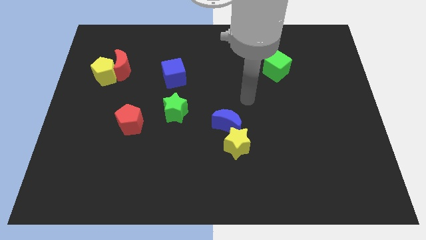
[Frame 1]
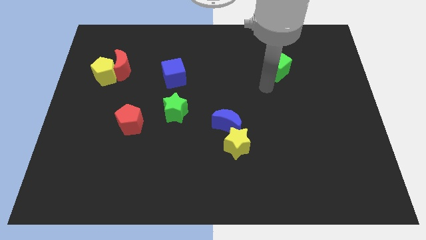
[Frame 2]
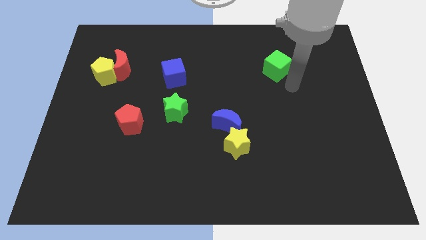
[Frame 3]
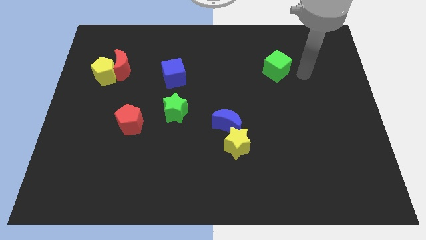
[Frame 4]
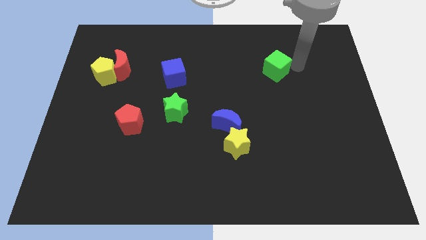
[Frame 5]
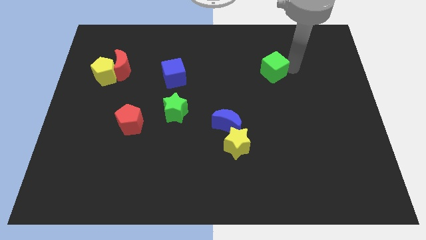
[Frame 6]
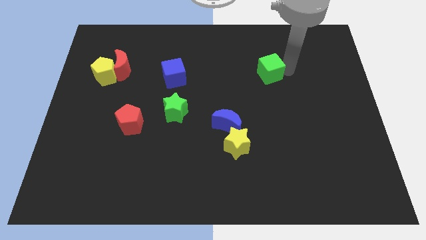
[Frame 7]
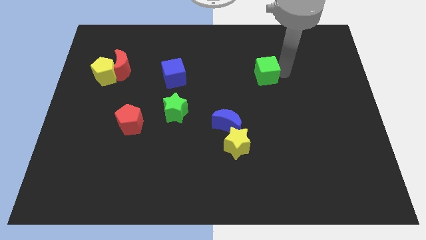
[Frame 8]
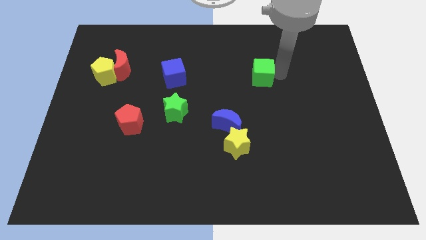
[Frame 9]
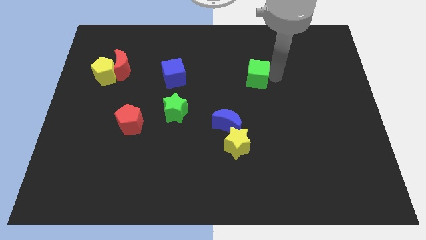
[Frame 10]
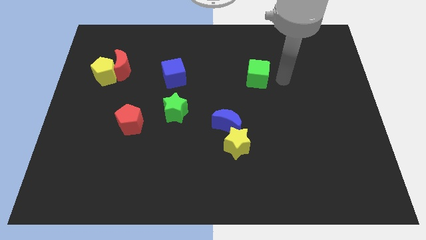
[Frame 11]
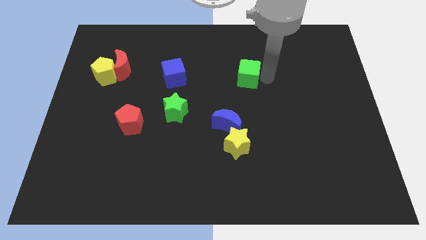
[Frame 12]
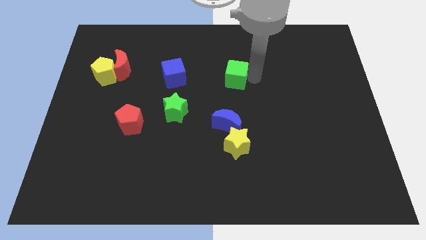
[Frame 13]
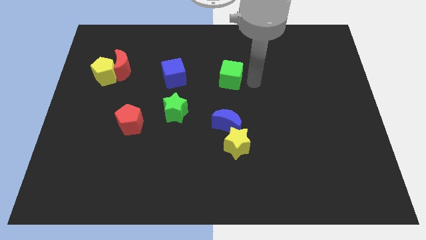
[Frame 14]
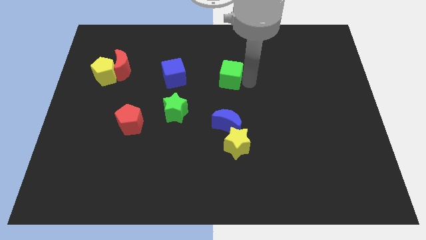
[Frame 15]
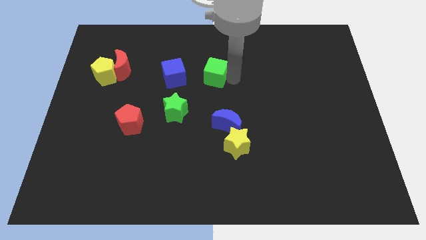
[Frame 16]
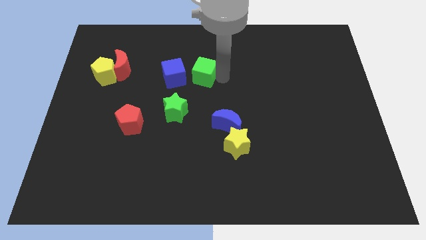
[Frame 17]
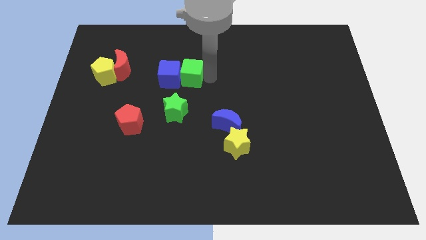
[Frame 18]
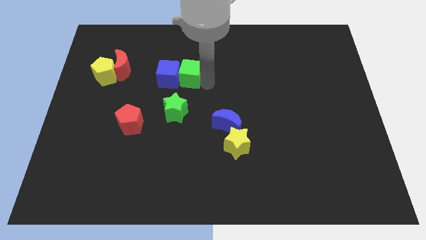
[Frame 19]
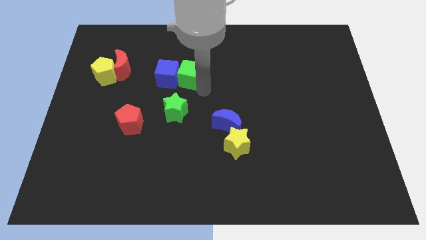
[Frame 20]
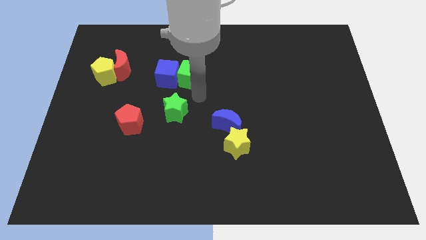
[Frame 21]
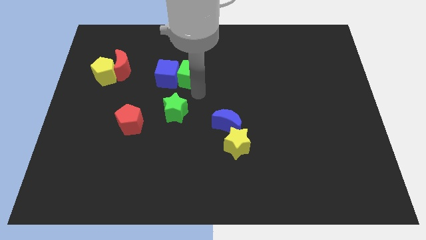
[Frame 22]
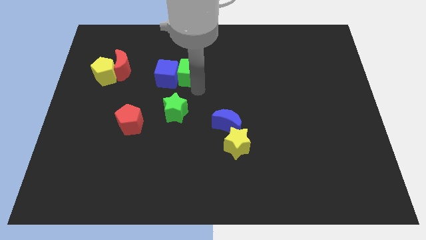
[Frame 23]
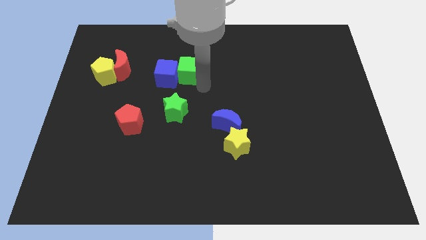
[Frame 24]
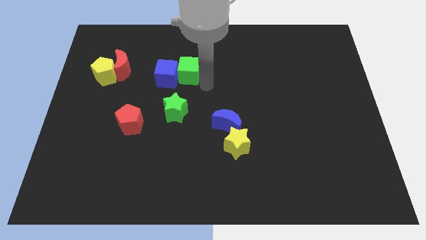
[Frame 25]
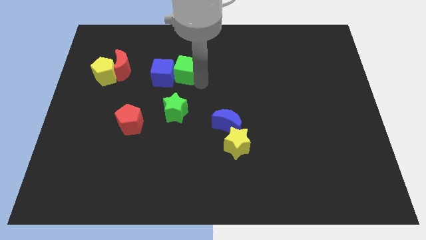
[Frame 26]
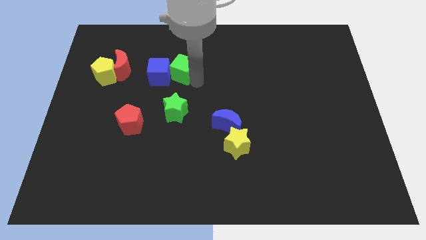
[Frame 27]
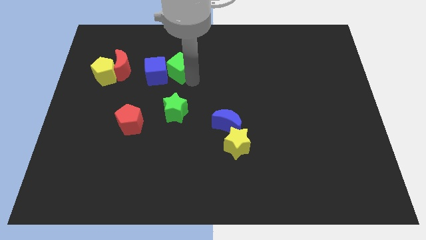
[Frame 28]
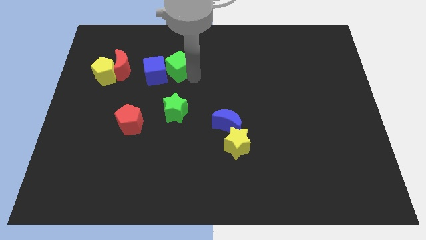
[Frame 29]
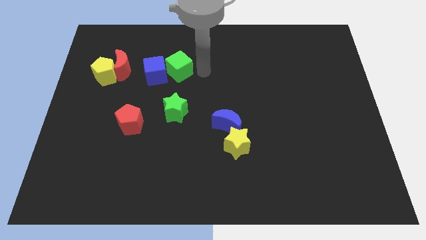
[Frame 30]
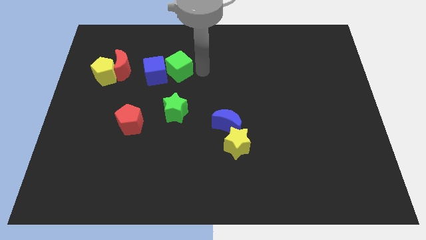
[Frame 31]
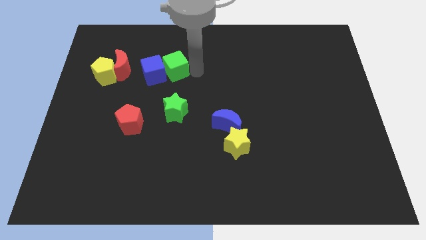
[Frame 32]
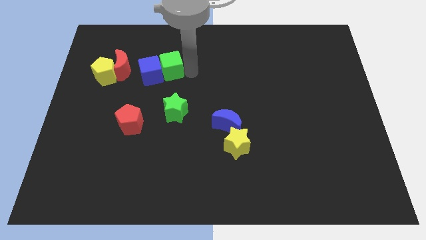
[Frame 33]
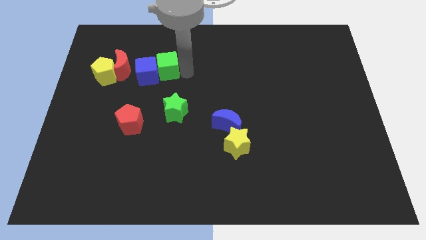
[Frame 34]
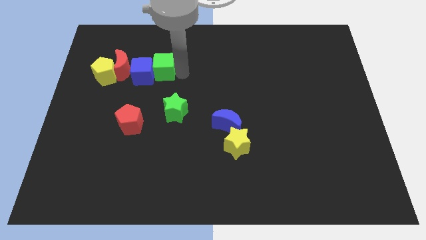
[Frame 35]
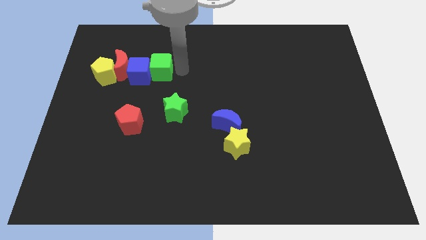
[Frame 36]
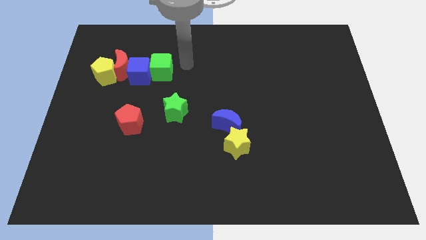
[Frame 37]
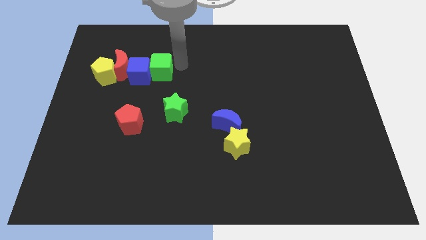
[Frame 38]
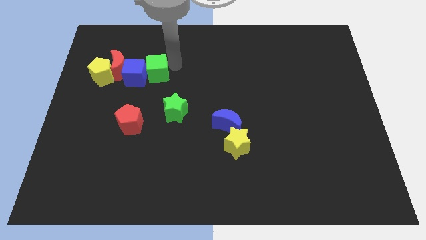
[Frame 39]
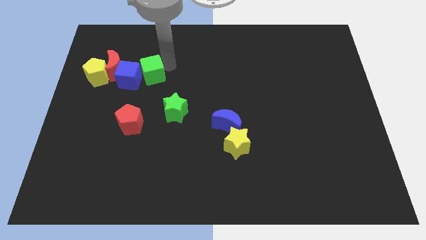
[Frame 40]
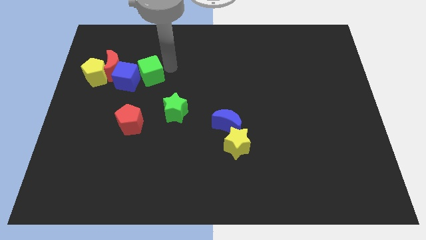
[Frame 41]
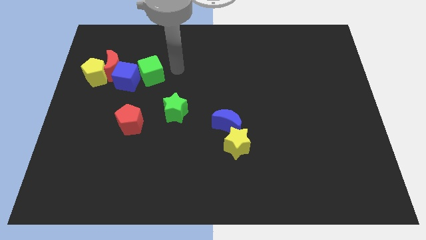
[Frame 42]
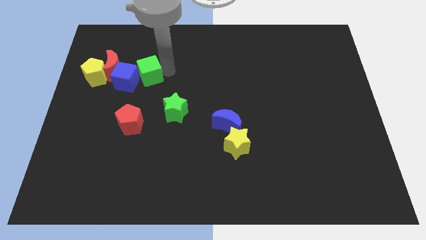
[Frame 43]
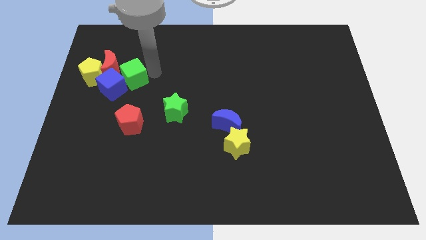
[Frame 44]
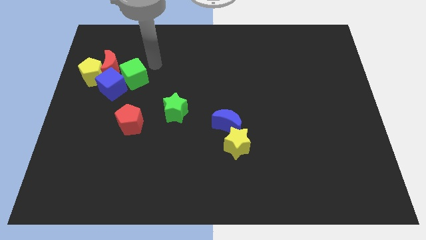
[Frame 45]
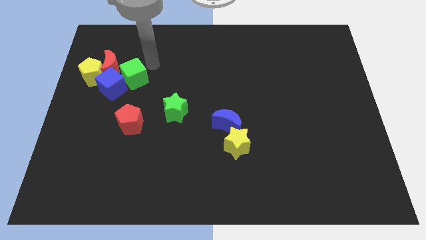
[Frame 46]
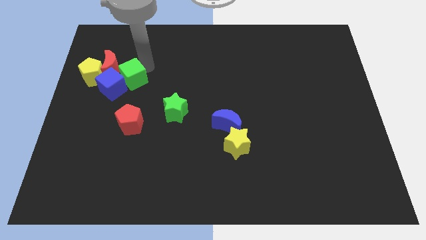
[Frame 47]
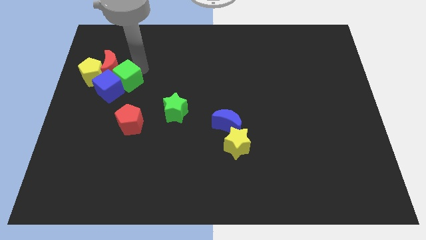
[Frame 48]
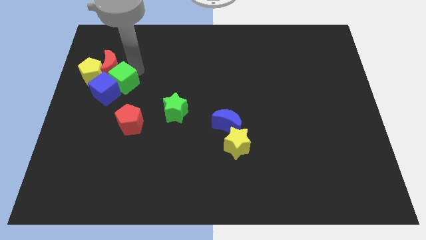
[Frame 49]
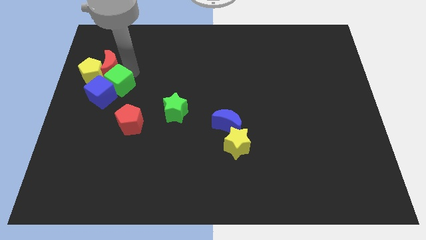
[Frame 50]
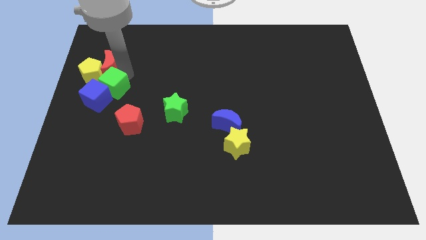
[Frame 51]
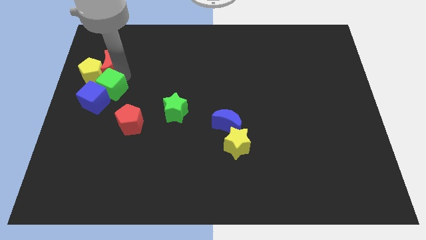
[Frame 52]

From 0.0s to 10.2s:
move the green cube diagonally up and to the left of the red pentagon

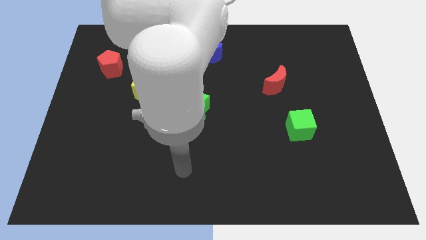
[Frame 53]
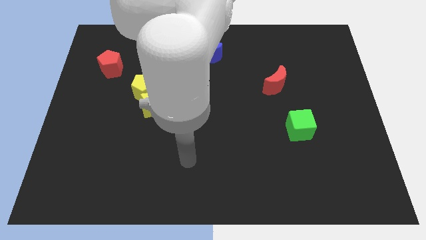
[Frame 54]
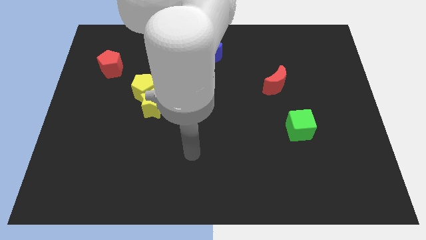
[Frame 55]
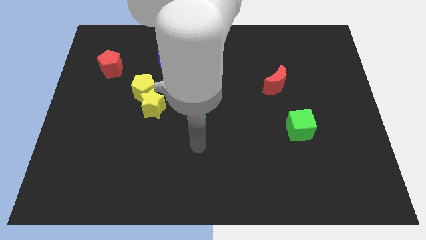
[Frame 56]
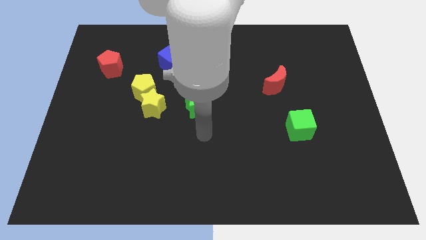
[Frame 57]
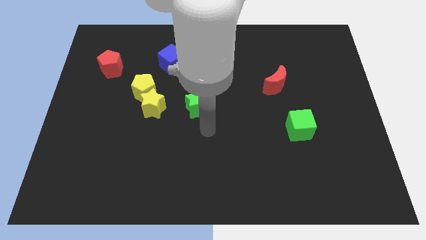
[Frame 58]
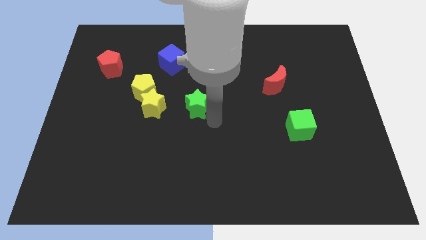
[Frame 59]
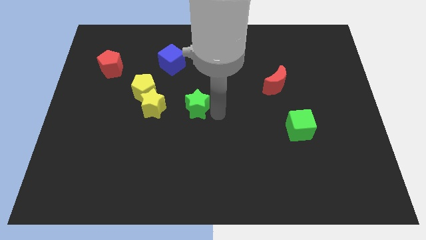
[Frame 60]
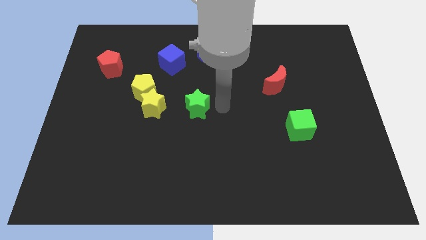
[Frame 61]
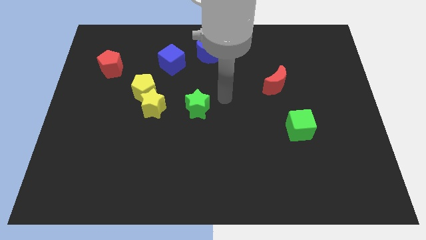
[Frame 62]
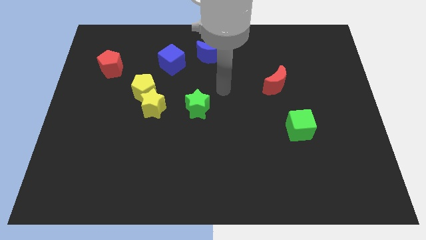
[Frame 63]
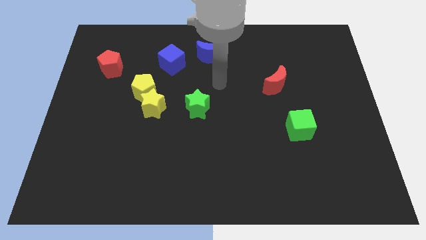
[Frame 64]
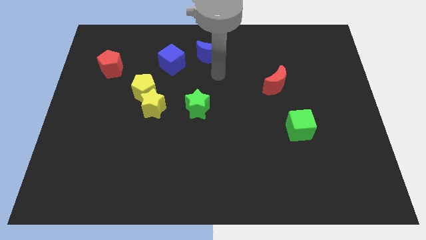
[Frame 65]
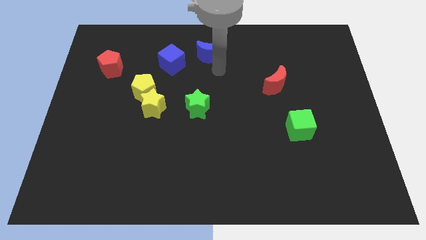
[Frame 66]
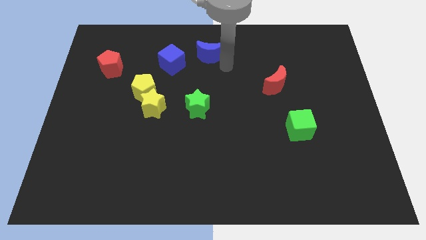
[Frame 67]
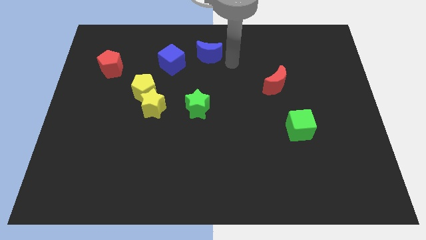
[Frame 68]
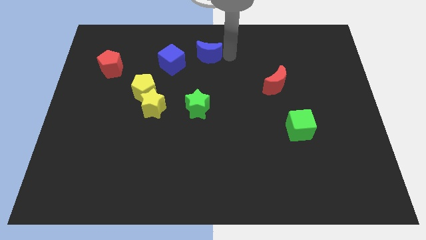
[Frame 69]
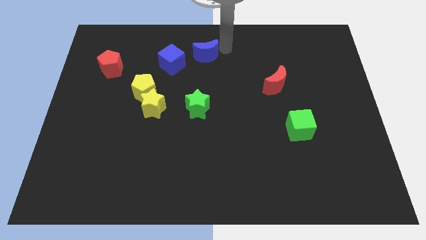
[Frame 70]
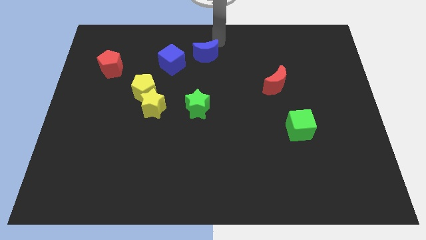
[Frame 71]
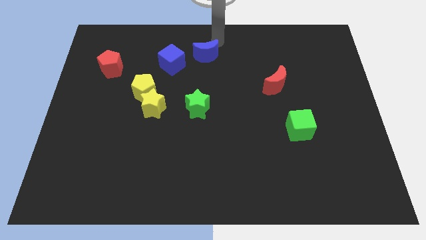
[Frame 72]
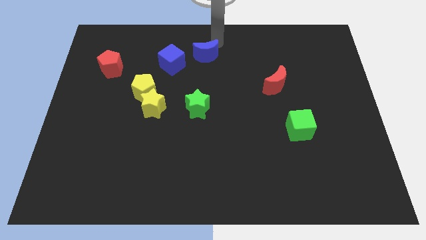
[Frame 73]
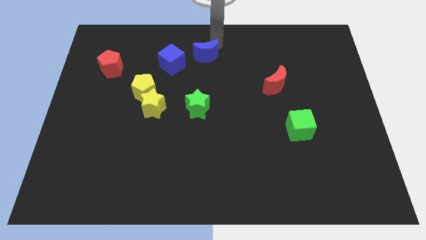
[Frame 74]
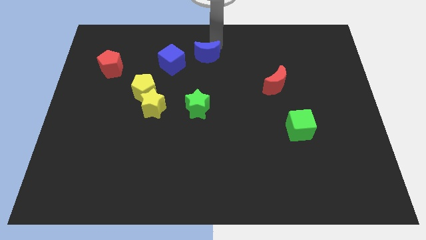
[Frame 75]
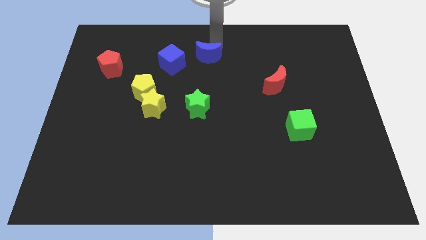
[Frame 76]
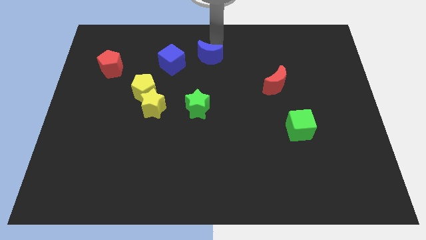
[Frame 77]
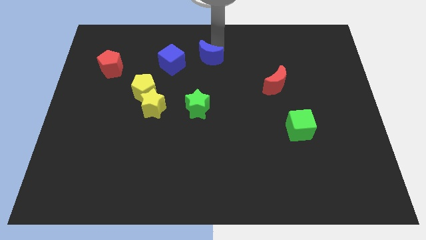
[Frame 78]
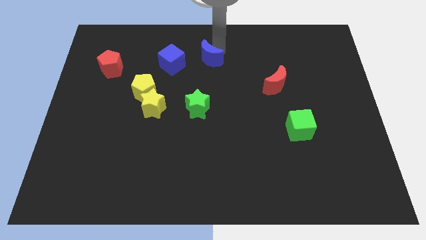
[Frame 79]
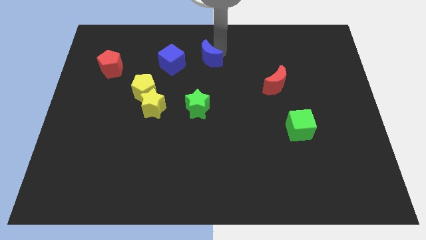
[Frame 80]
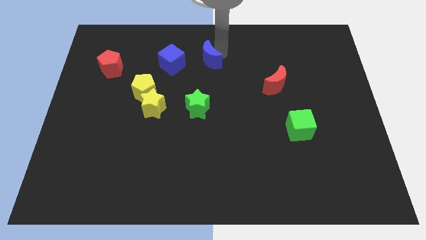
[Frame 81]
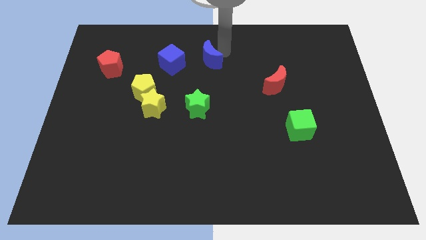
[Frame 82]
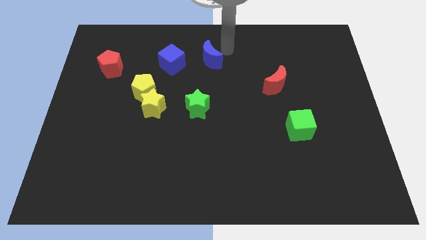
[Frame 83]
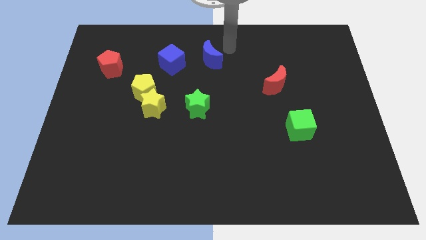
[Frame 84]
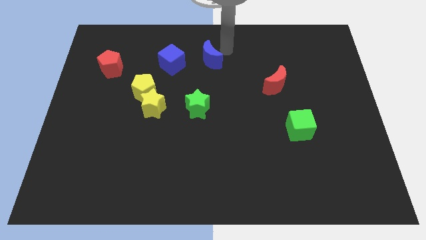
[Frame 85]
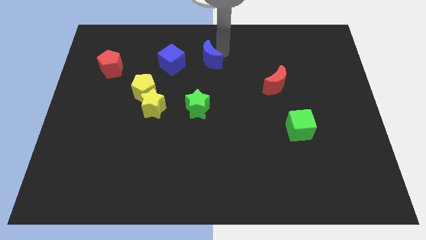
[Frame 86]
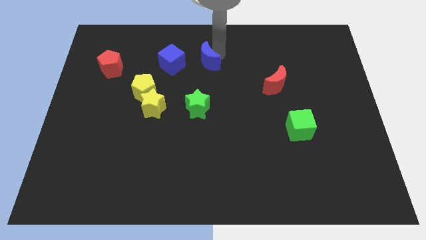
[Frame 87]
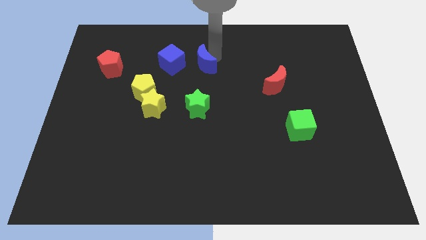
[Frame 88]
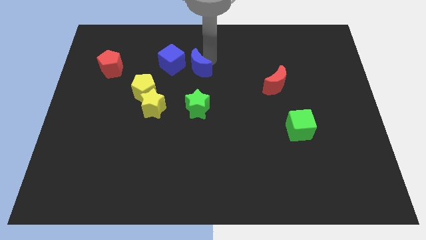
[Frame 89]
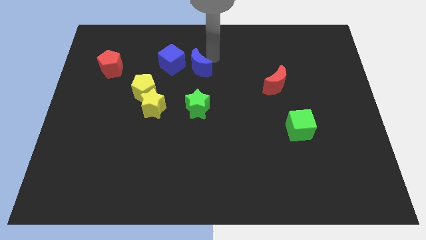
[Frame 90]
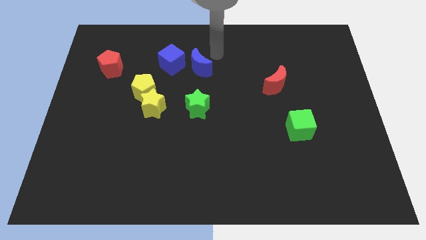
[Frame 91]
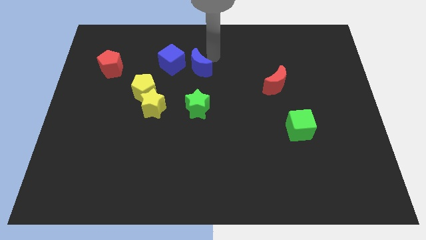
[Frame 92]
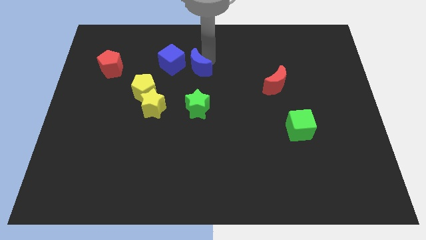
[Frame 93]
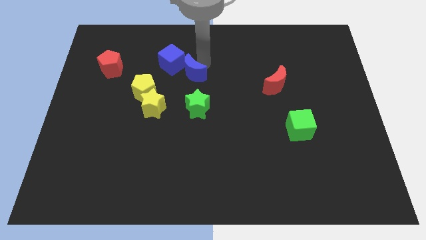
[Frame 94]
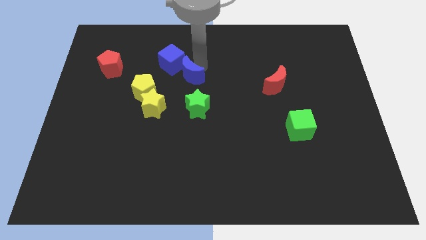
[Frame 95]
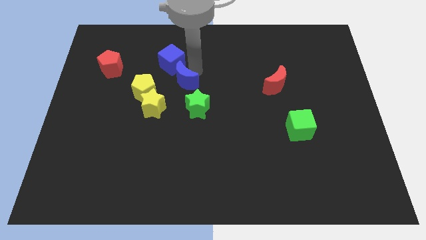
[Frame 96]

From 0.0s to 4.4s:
slide the blue moon to the bottom side of the blue cube
